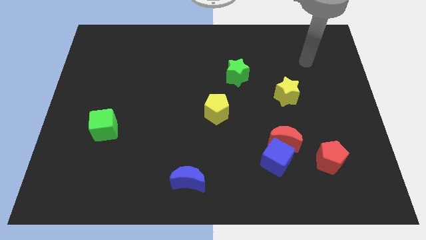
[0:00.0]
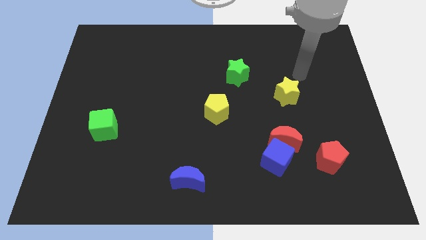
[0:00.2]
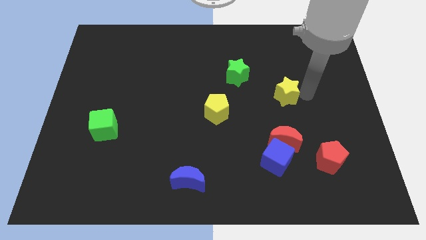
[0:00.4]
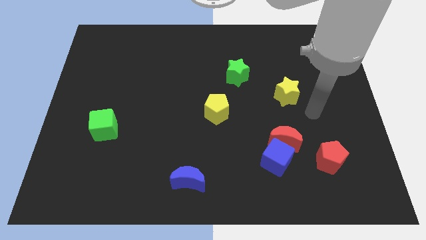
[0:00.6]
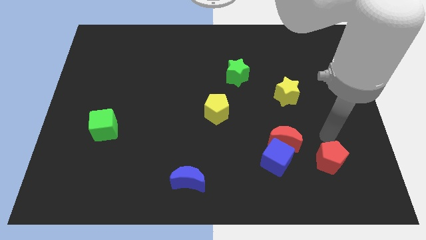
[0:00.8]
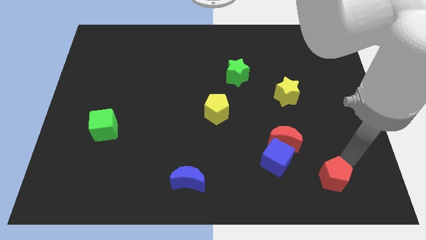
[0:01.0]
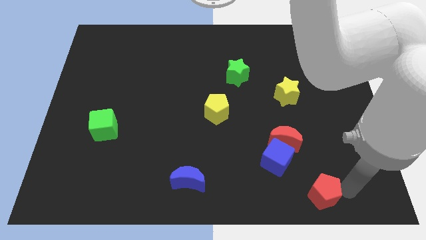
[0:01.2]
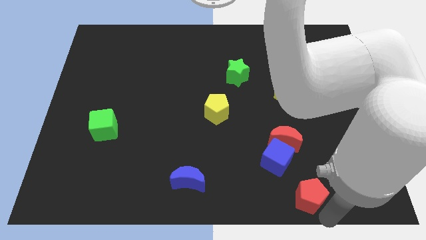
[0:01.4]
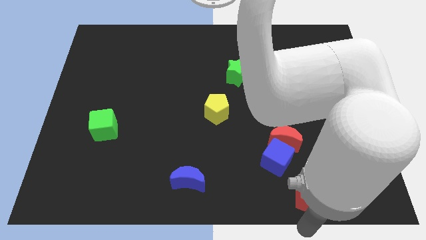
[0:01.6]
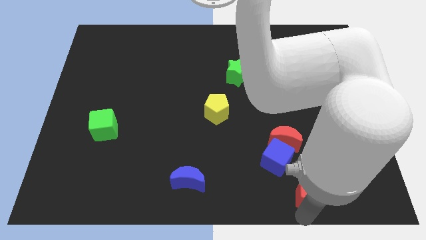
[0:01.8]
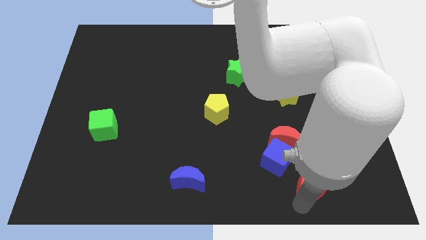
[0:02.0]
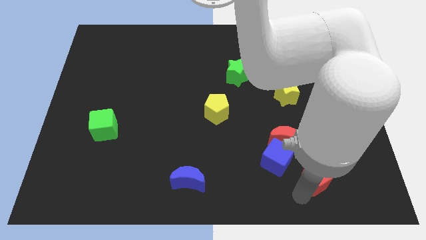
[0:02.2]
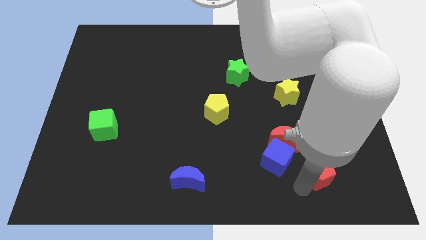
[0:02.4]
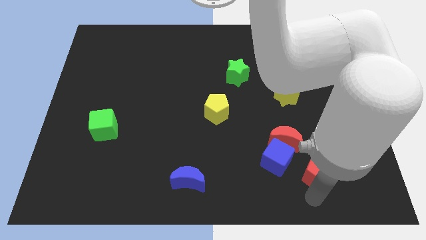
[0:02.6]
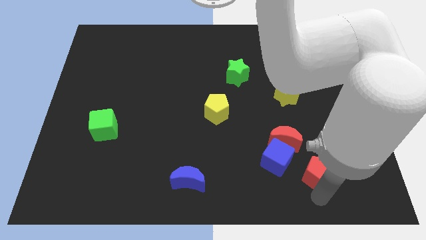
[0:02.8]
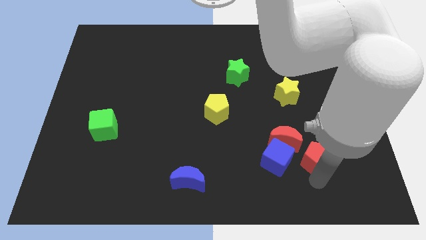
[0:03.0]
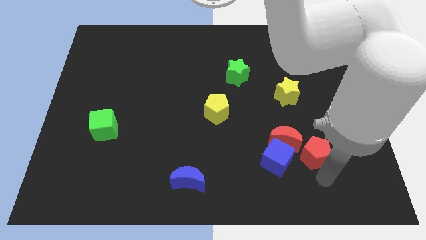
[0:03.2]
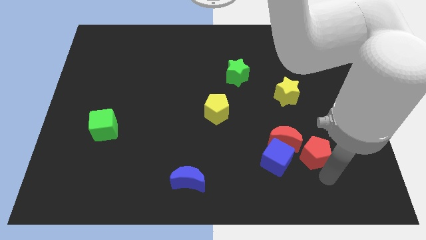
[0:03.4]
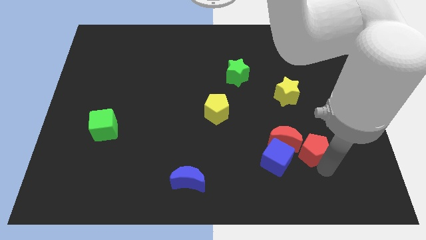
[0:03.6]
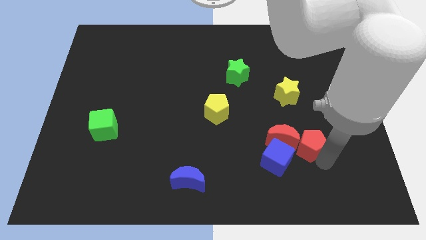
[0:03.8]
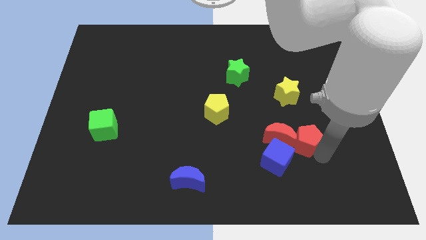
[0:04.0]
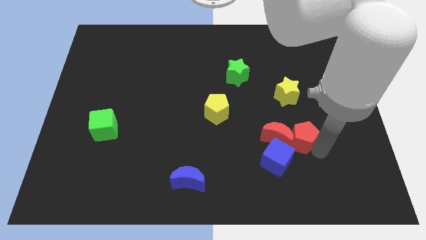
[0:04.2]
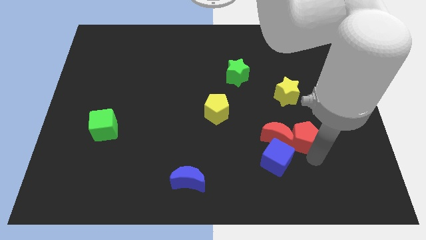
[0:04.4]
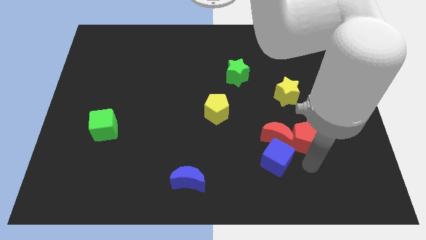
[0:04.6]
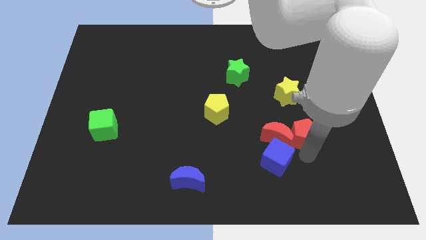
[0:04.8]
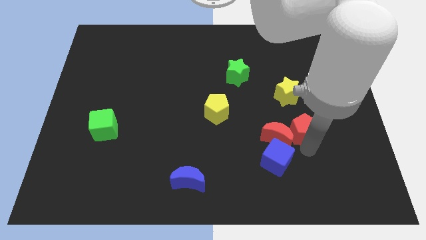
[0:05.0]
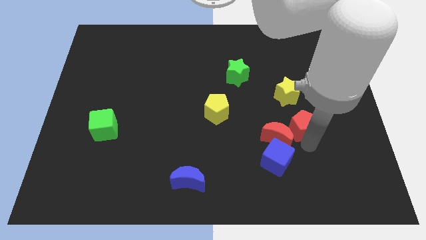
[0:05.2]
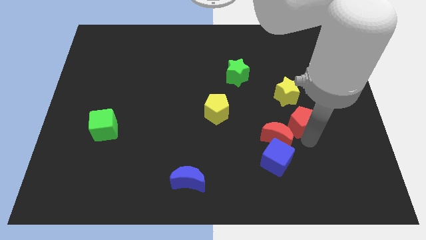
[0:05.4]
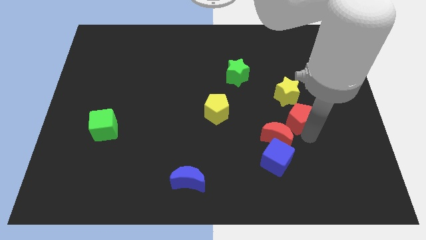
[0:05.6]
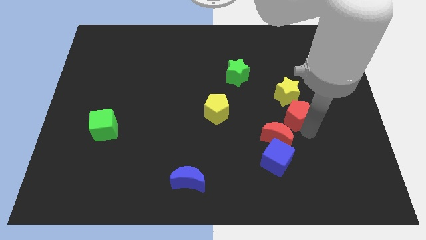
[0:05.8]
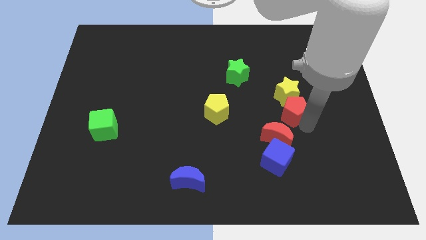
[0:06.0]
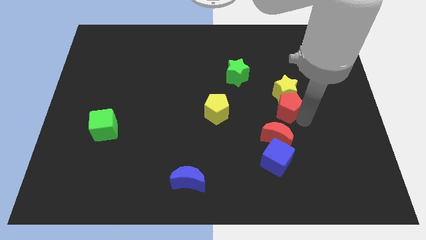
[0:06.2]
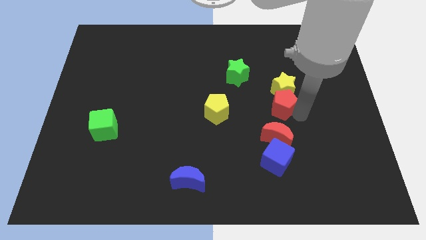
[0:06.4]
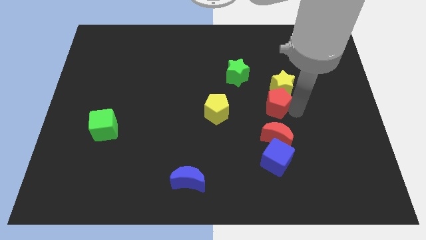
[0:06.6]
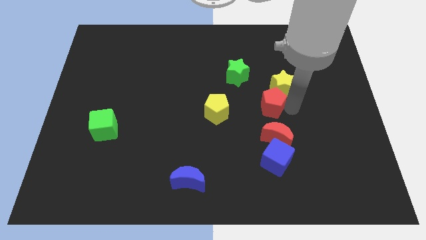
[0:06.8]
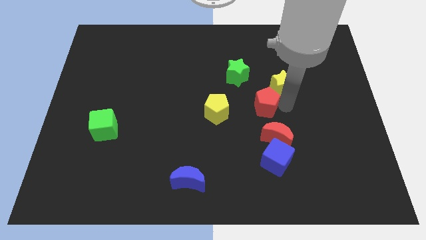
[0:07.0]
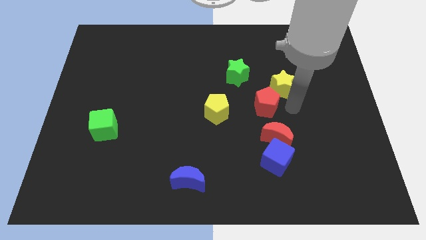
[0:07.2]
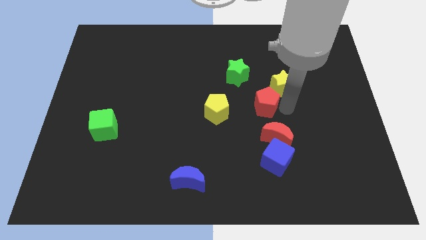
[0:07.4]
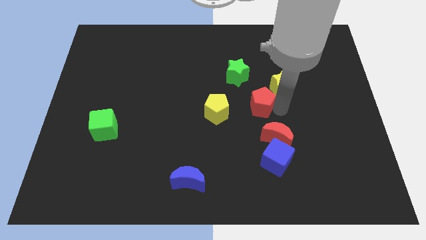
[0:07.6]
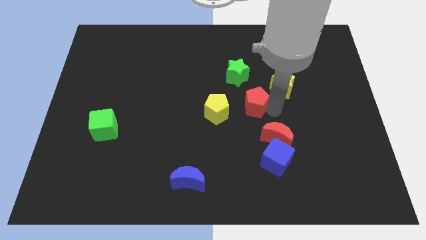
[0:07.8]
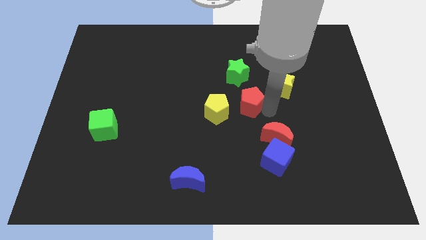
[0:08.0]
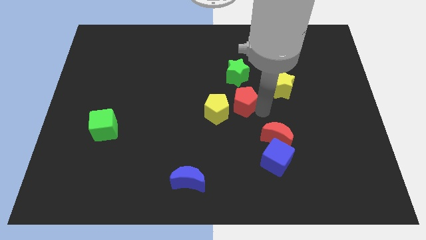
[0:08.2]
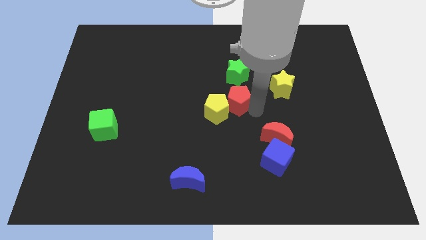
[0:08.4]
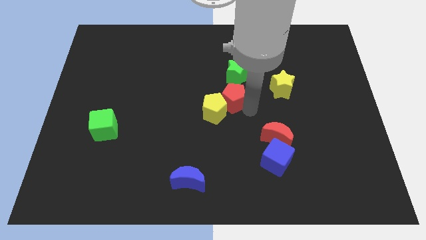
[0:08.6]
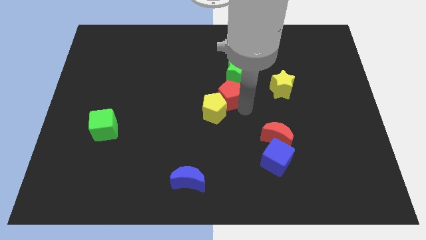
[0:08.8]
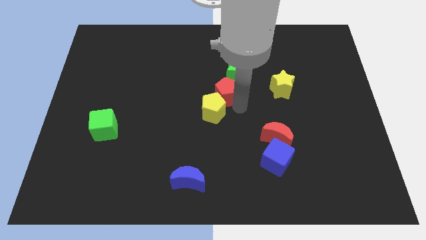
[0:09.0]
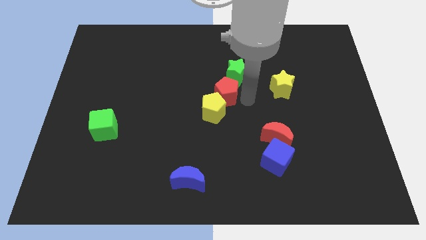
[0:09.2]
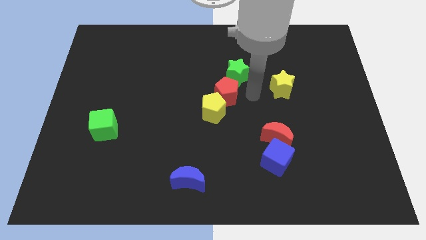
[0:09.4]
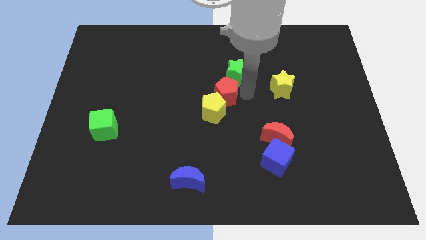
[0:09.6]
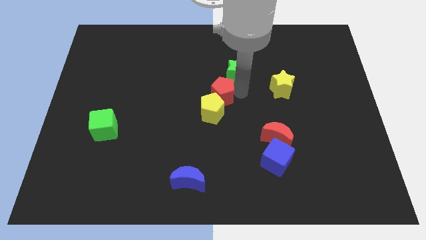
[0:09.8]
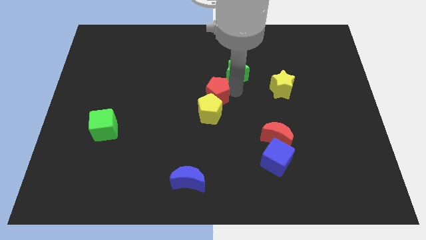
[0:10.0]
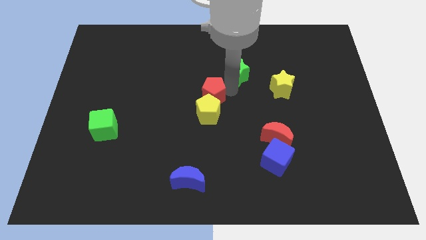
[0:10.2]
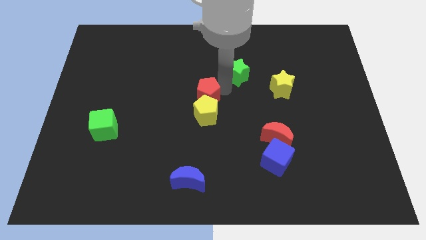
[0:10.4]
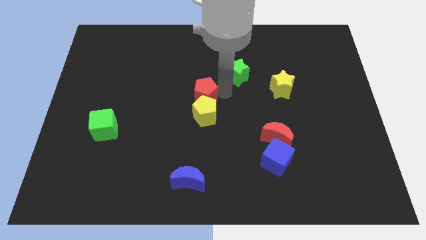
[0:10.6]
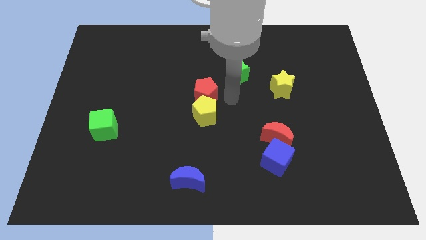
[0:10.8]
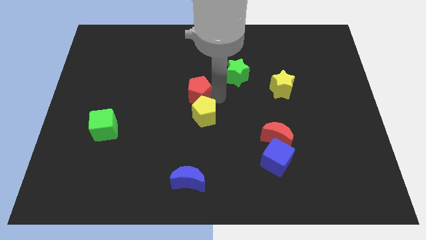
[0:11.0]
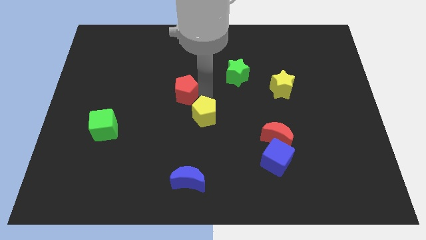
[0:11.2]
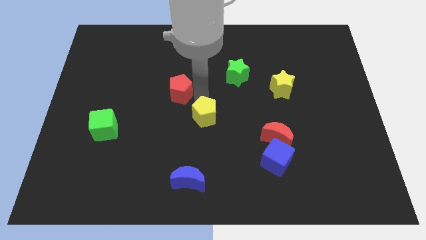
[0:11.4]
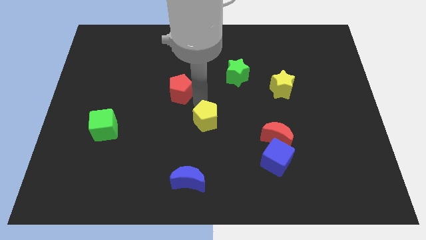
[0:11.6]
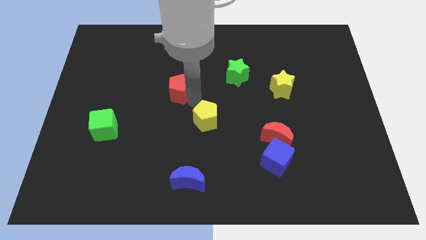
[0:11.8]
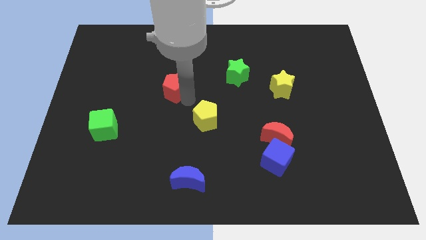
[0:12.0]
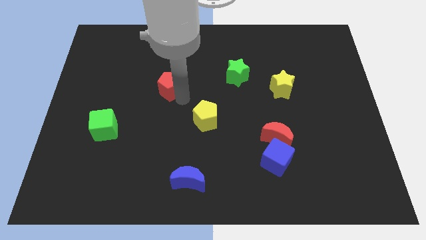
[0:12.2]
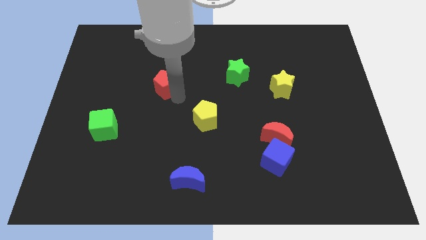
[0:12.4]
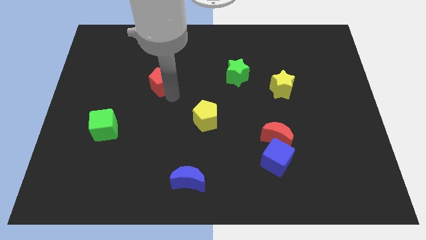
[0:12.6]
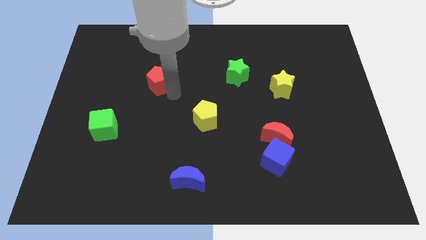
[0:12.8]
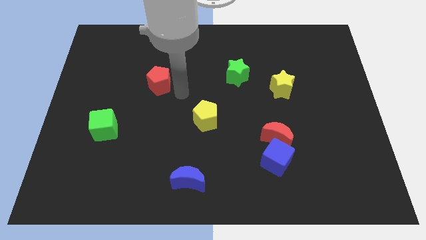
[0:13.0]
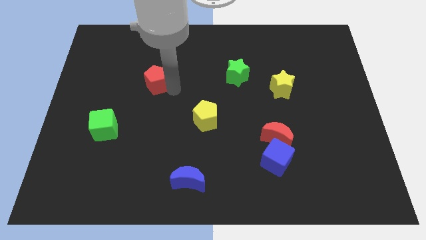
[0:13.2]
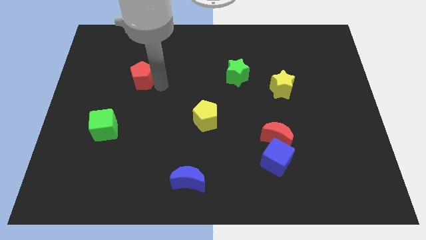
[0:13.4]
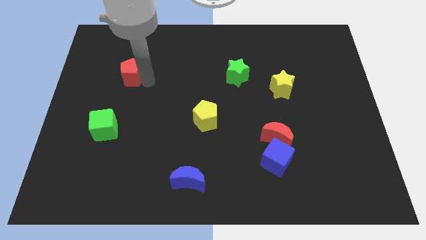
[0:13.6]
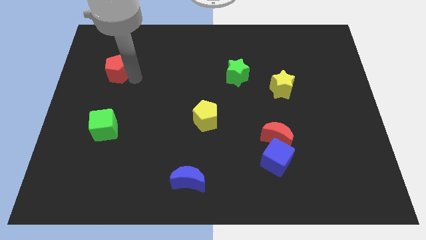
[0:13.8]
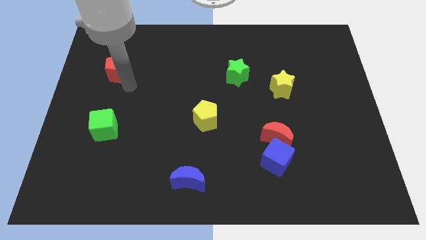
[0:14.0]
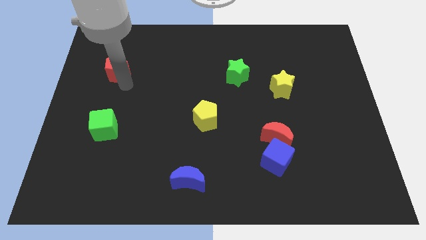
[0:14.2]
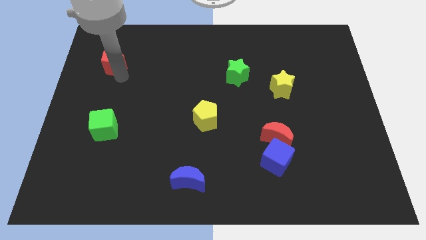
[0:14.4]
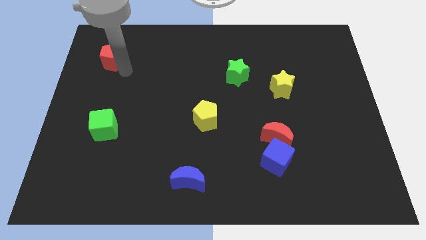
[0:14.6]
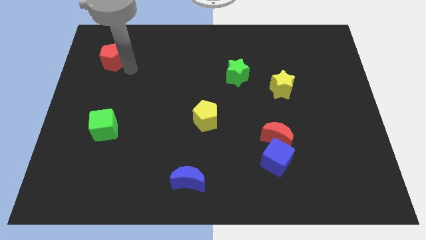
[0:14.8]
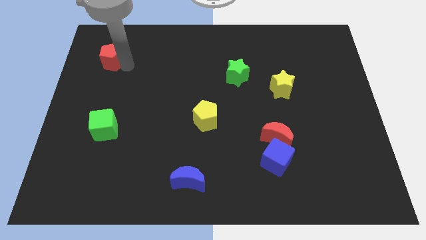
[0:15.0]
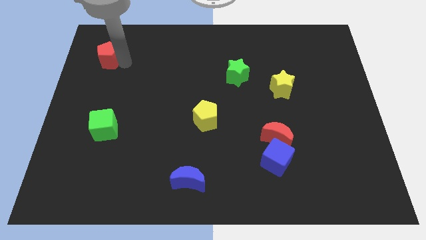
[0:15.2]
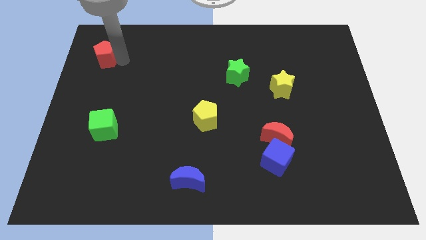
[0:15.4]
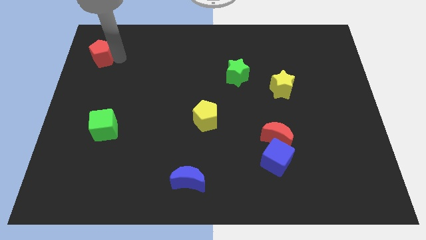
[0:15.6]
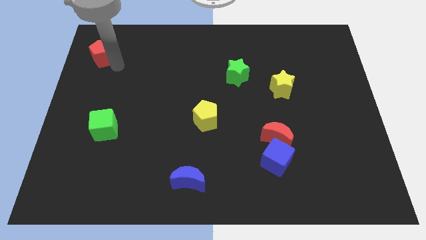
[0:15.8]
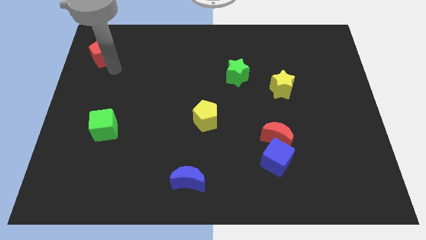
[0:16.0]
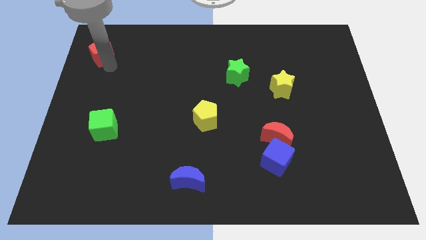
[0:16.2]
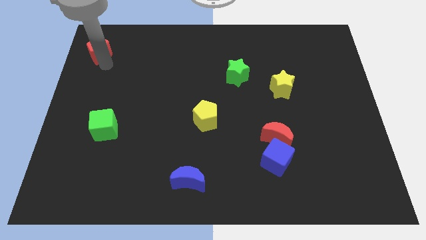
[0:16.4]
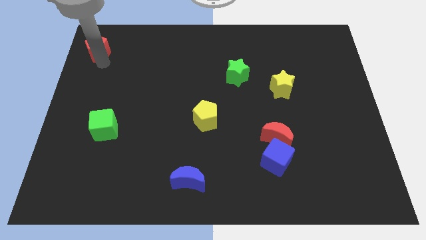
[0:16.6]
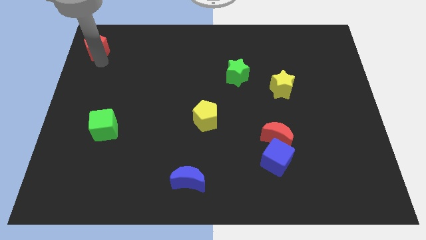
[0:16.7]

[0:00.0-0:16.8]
push the red pentagon to the top left corner
